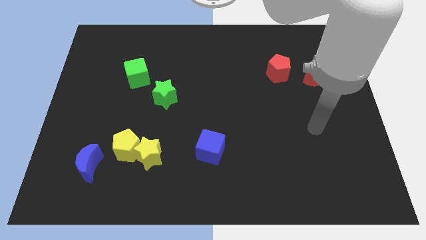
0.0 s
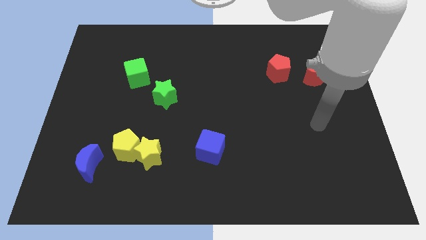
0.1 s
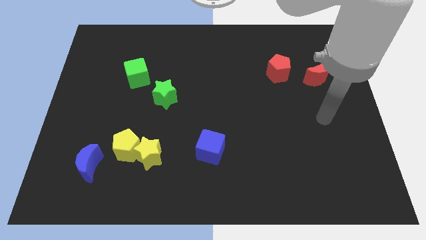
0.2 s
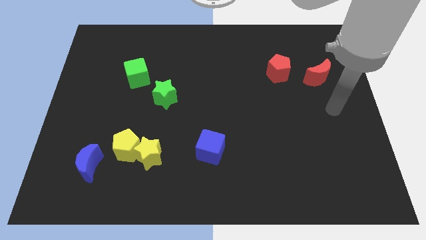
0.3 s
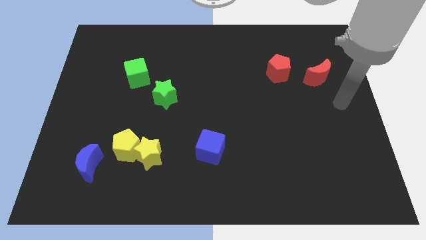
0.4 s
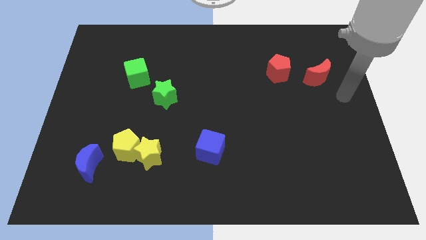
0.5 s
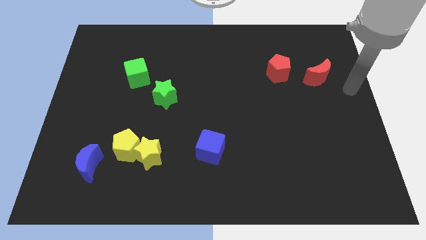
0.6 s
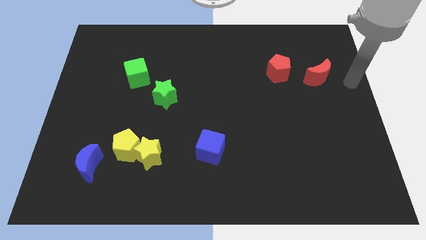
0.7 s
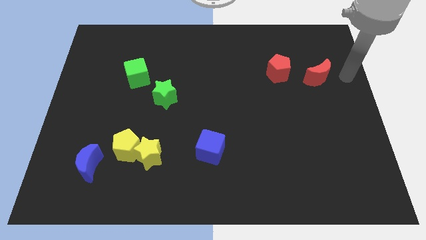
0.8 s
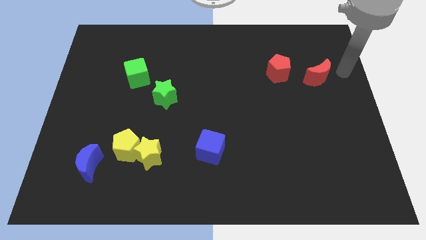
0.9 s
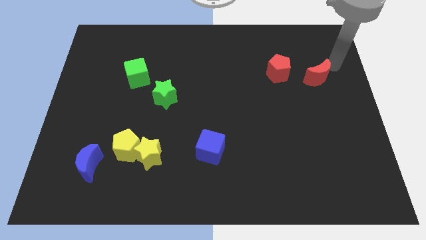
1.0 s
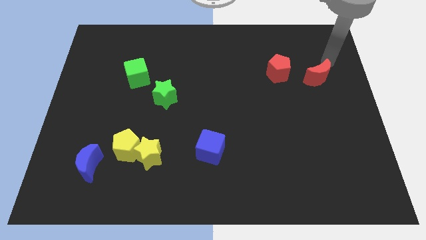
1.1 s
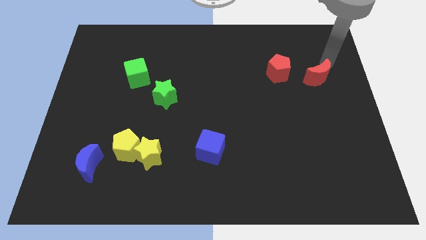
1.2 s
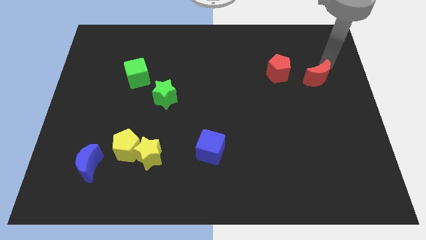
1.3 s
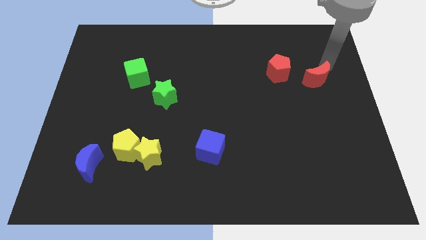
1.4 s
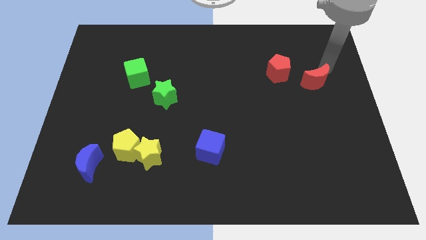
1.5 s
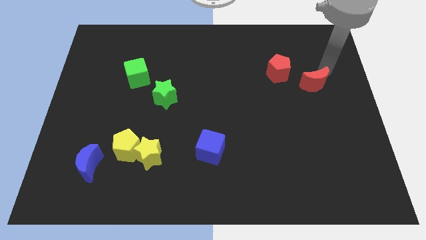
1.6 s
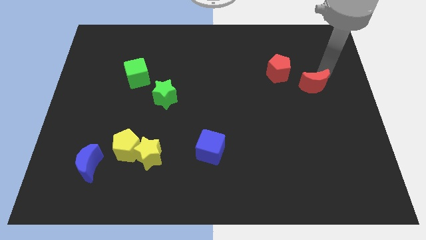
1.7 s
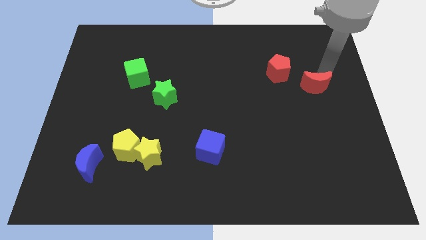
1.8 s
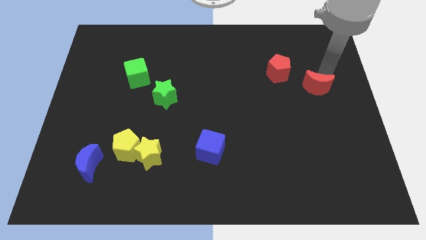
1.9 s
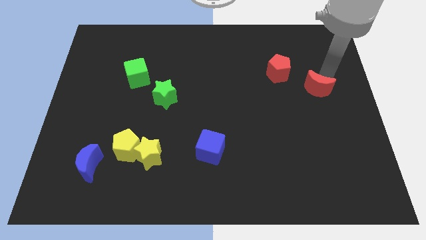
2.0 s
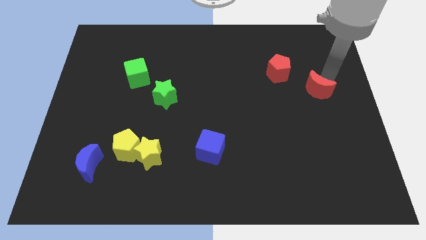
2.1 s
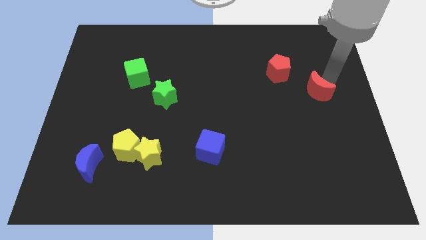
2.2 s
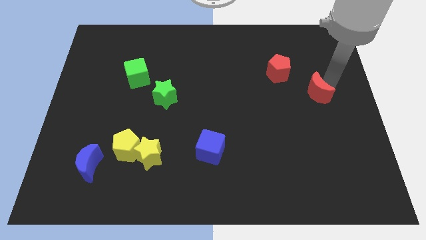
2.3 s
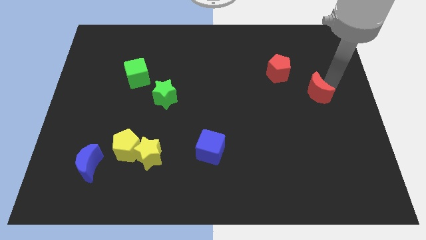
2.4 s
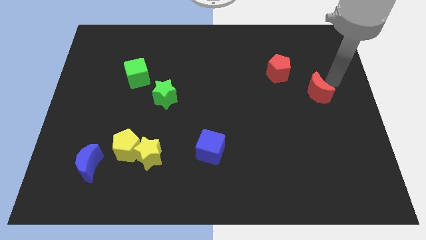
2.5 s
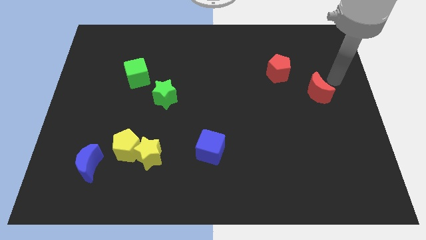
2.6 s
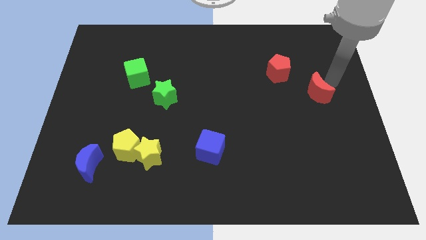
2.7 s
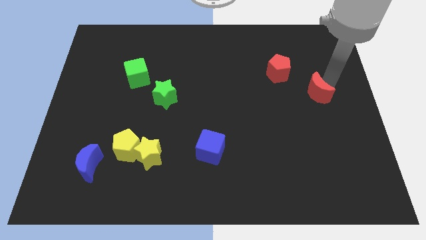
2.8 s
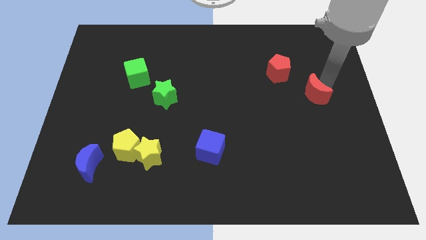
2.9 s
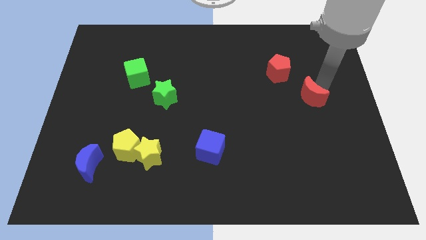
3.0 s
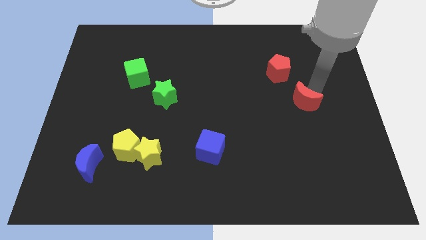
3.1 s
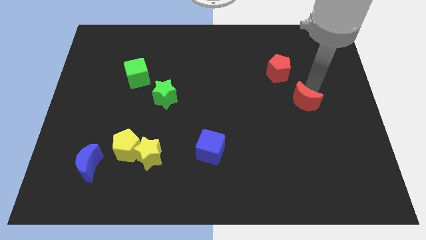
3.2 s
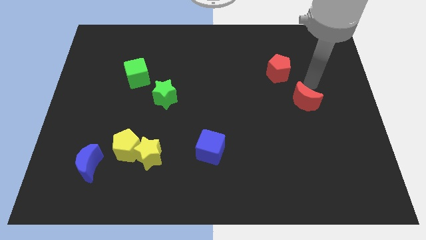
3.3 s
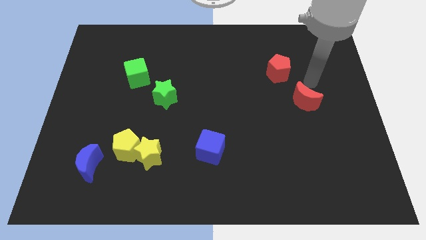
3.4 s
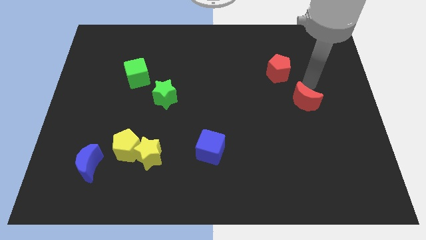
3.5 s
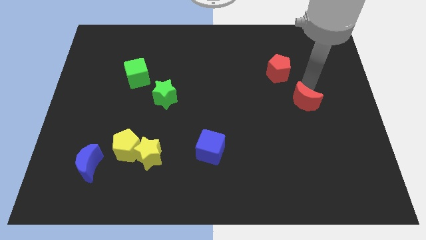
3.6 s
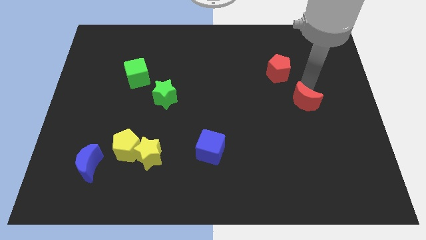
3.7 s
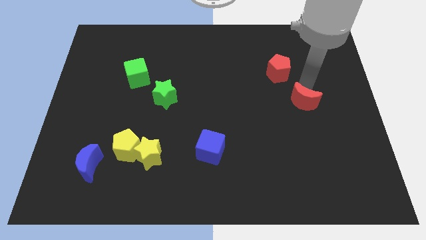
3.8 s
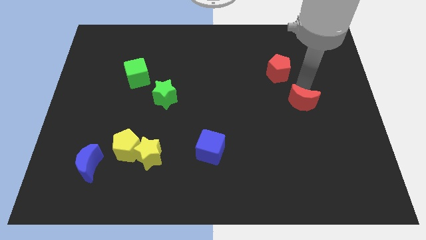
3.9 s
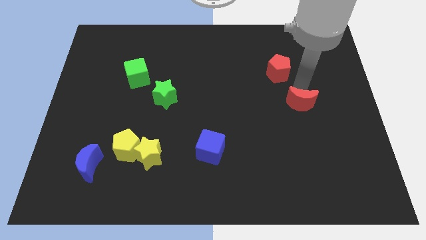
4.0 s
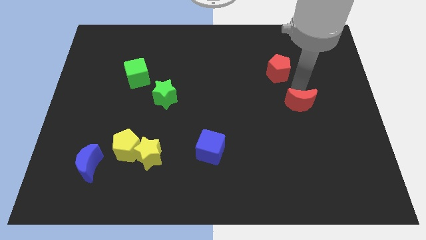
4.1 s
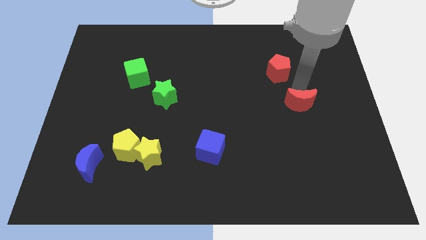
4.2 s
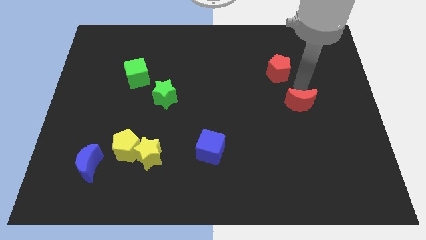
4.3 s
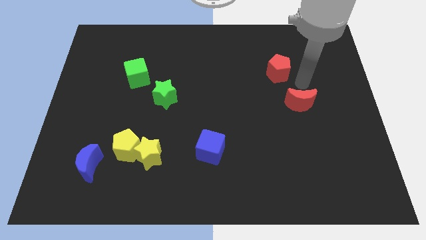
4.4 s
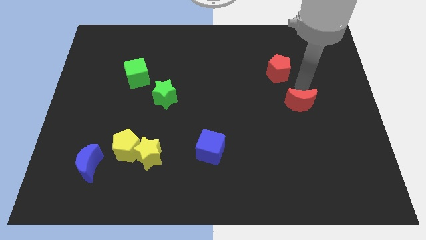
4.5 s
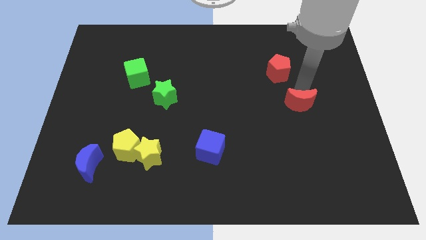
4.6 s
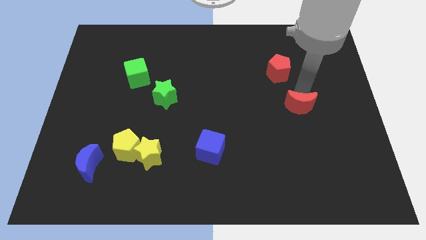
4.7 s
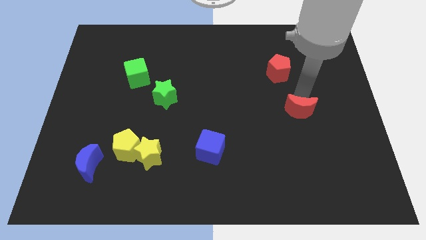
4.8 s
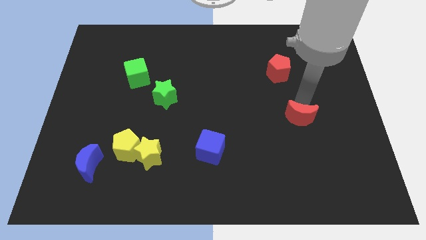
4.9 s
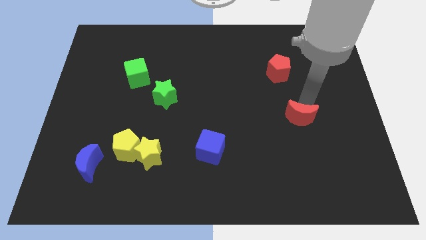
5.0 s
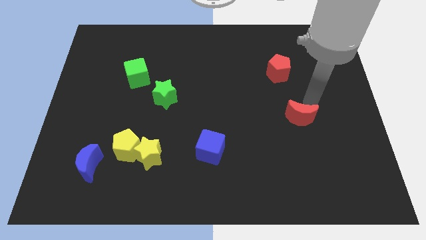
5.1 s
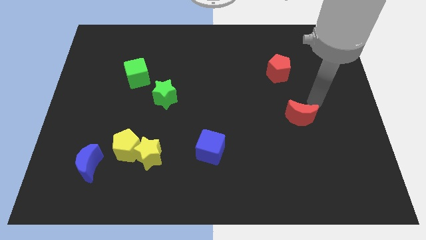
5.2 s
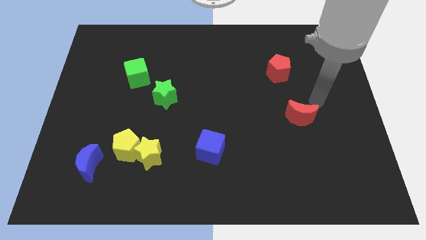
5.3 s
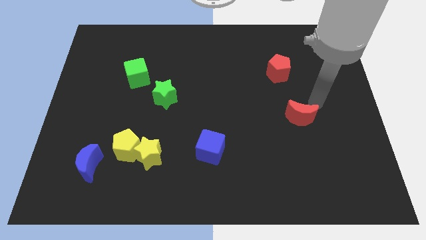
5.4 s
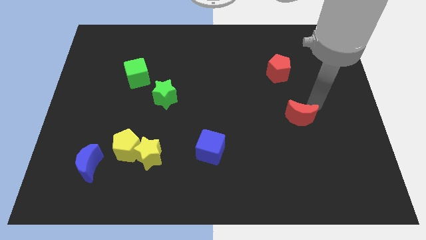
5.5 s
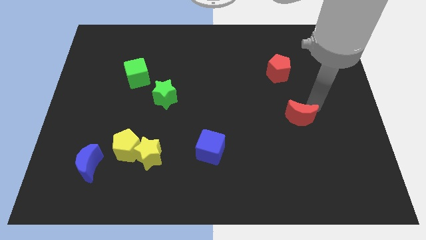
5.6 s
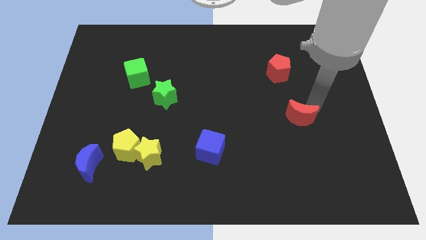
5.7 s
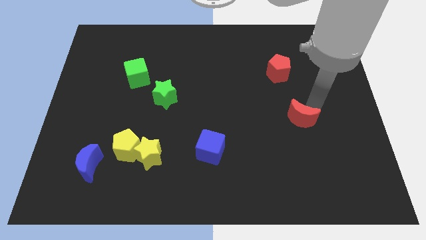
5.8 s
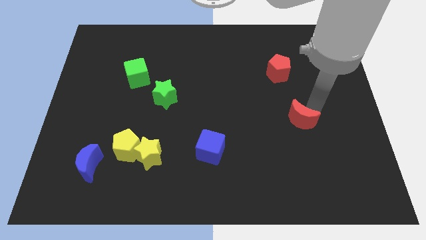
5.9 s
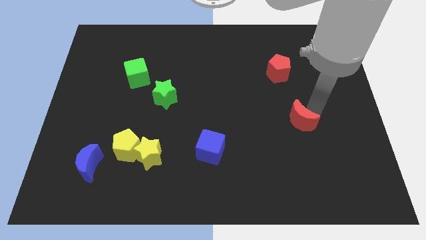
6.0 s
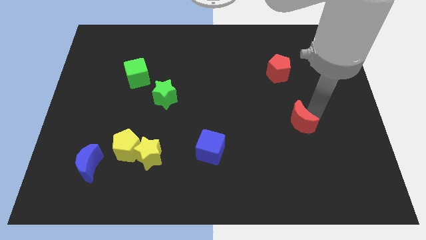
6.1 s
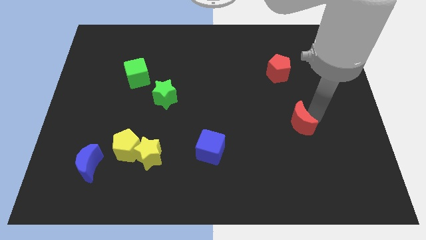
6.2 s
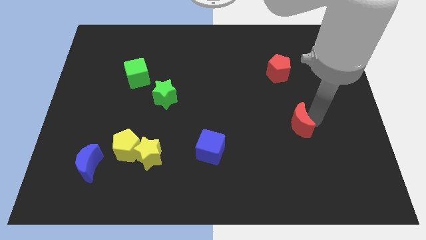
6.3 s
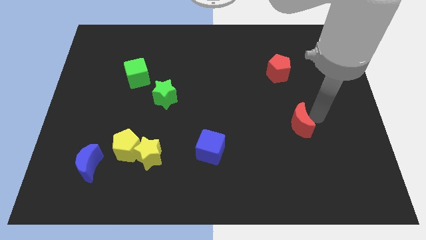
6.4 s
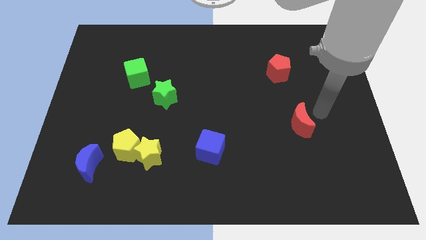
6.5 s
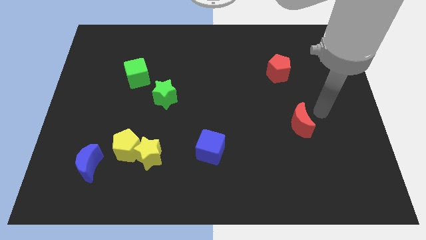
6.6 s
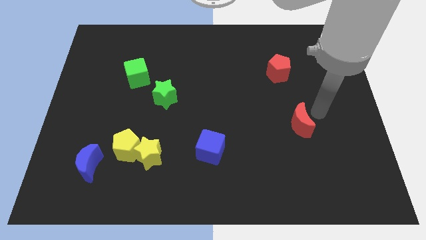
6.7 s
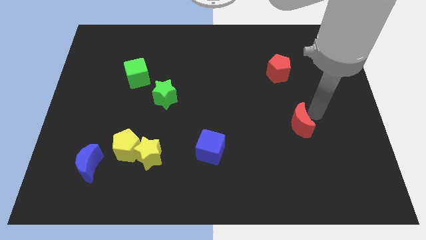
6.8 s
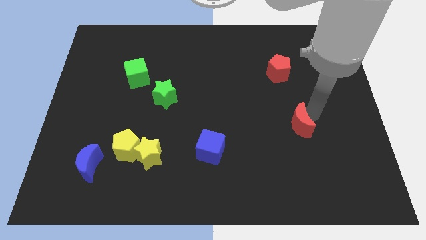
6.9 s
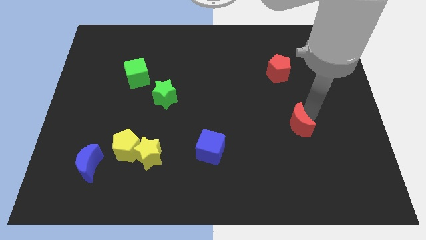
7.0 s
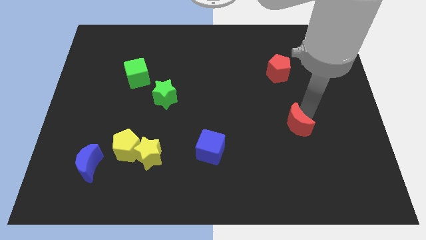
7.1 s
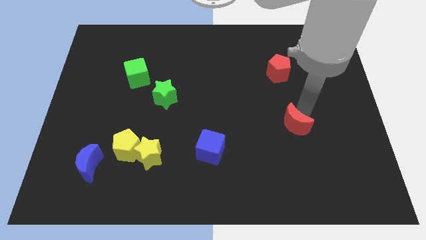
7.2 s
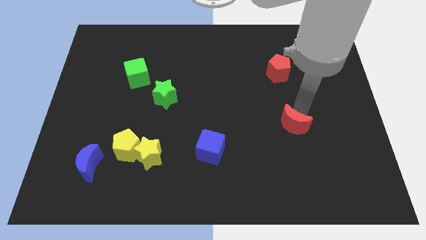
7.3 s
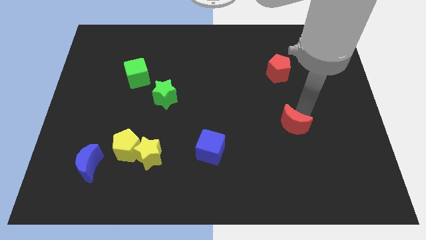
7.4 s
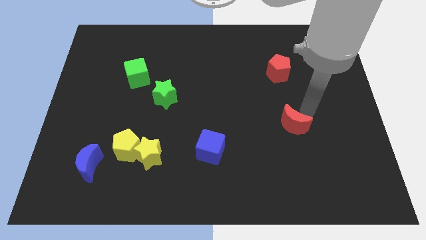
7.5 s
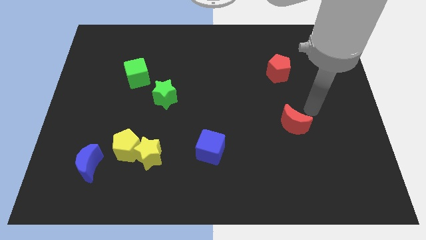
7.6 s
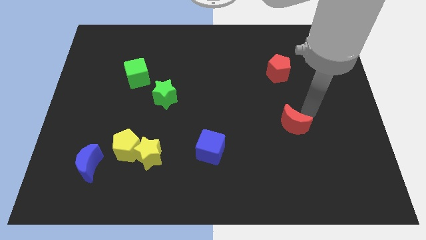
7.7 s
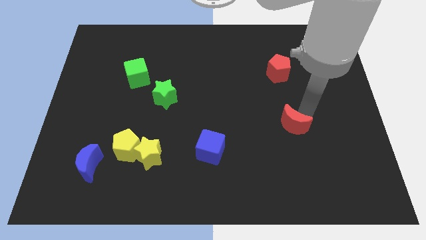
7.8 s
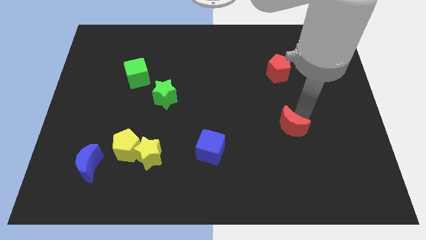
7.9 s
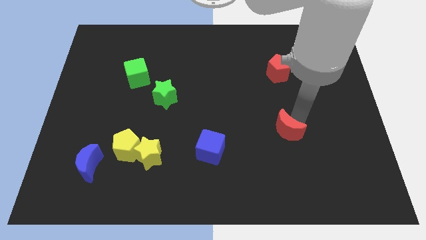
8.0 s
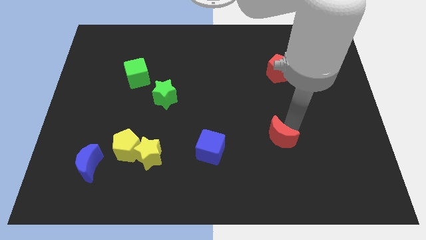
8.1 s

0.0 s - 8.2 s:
move the red moon diagonally down and left
